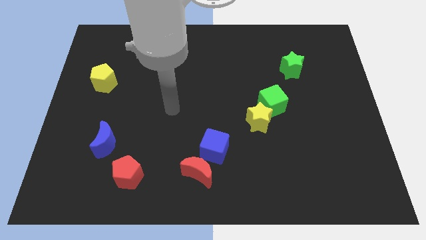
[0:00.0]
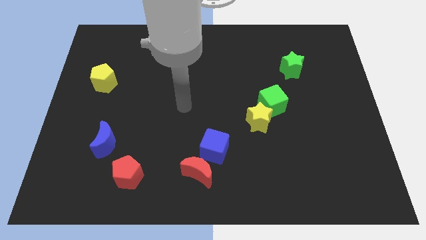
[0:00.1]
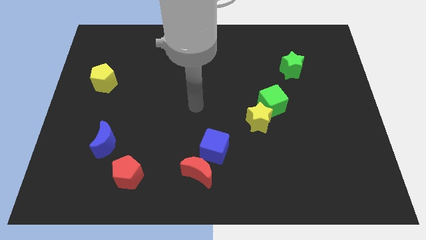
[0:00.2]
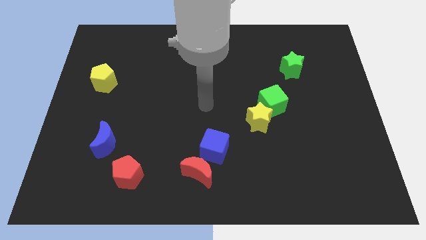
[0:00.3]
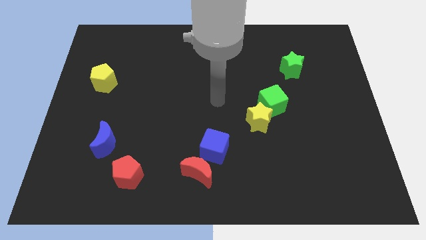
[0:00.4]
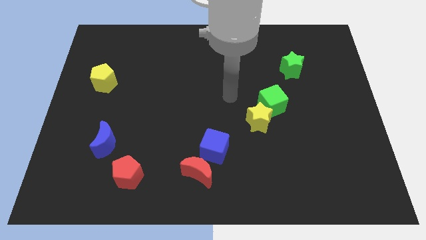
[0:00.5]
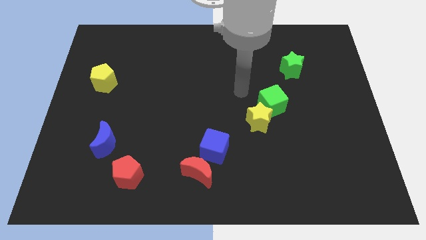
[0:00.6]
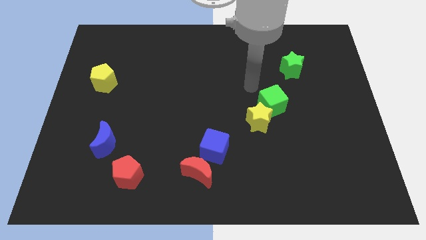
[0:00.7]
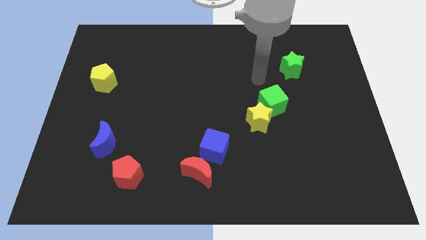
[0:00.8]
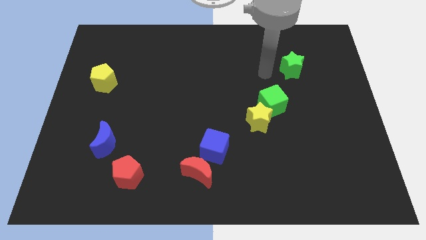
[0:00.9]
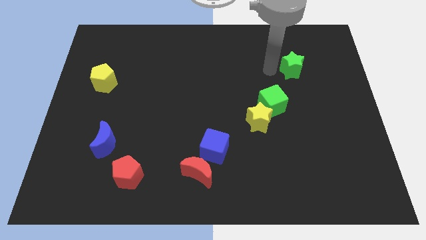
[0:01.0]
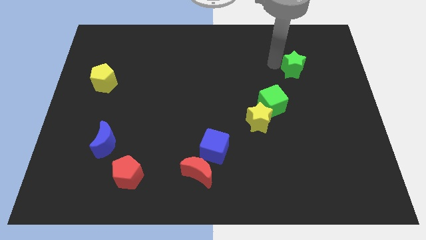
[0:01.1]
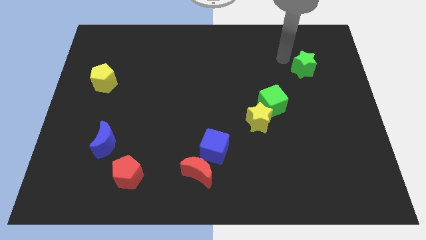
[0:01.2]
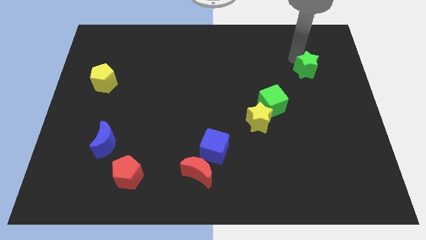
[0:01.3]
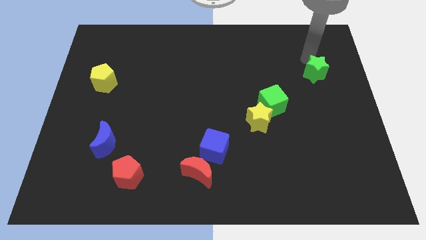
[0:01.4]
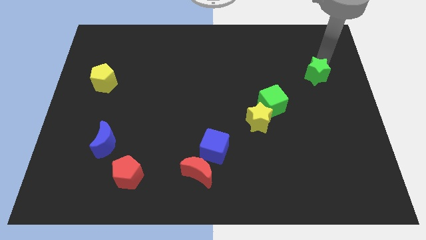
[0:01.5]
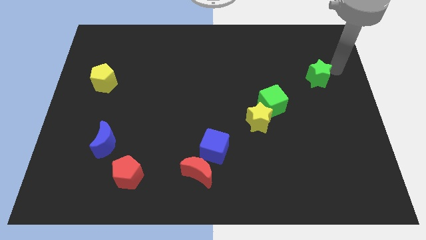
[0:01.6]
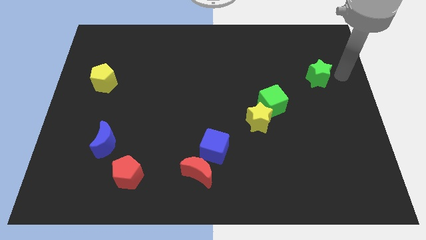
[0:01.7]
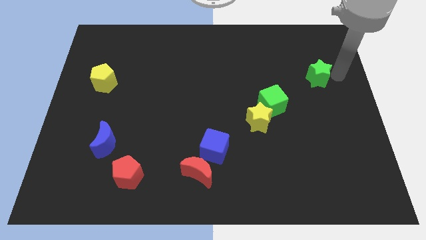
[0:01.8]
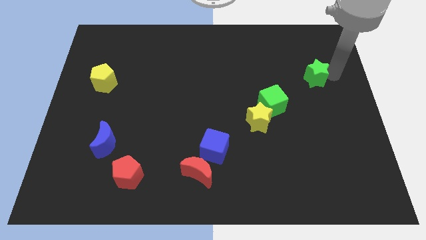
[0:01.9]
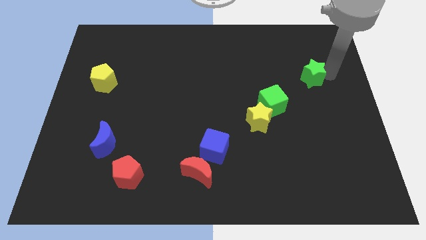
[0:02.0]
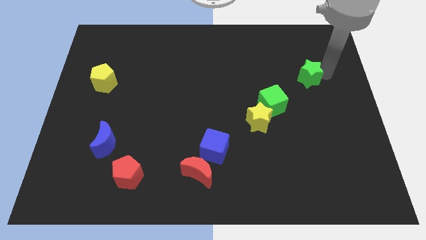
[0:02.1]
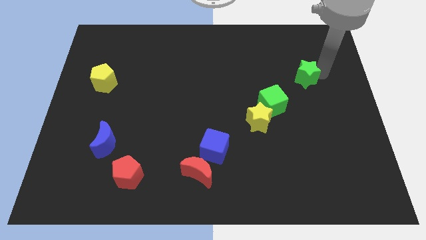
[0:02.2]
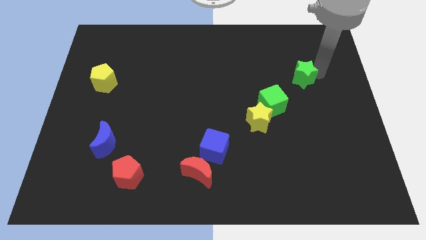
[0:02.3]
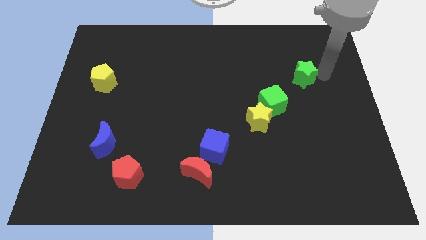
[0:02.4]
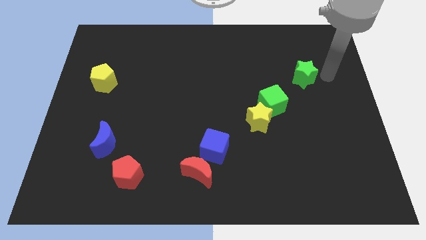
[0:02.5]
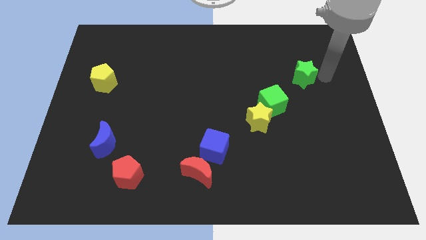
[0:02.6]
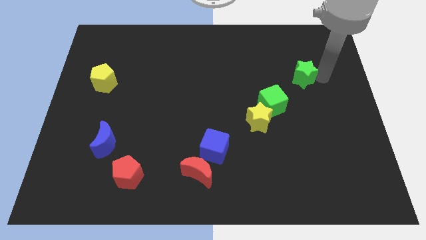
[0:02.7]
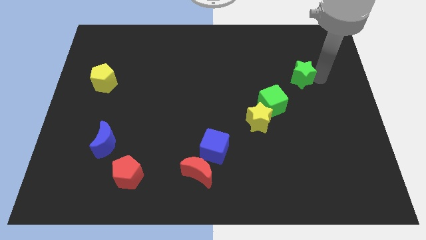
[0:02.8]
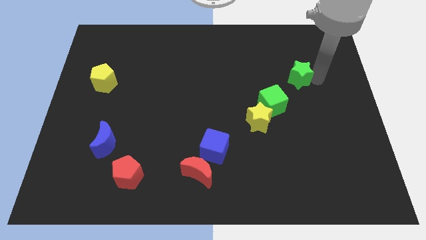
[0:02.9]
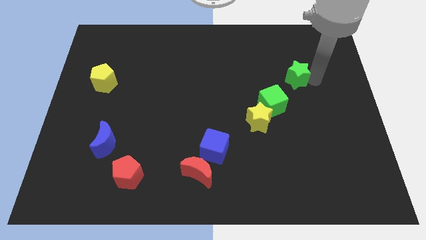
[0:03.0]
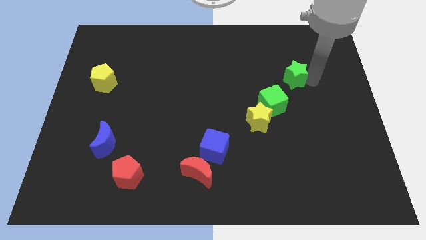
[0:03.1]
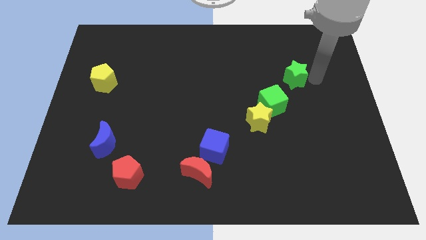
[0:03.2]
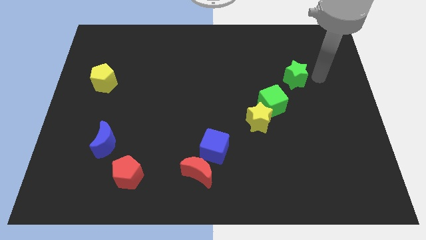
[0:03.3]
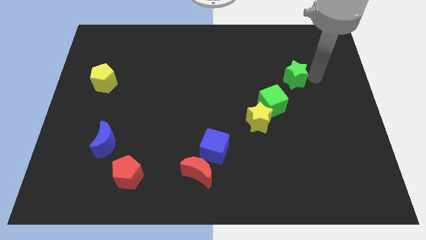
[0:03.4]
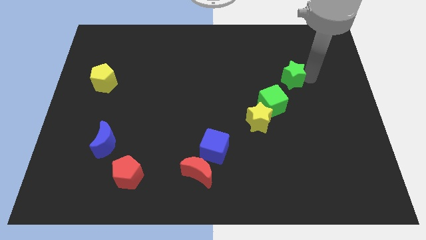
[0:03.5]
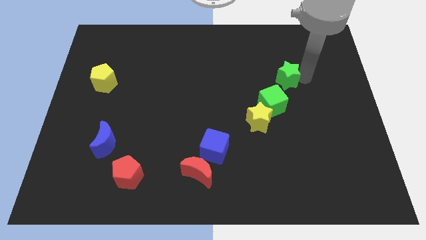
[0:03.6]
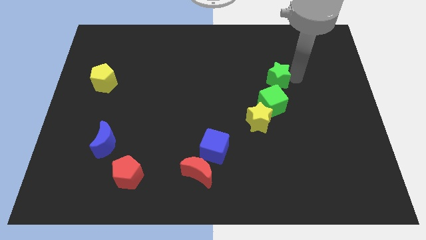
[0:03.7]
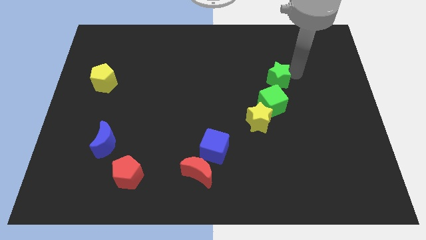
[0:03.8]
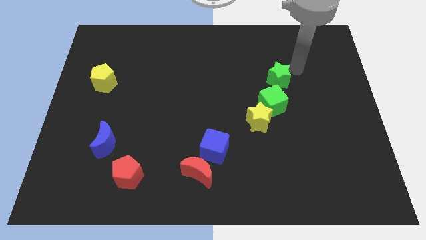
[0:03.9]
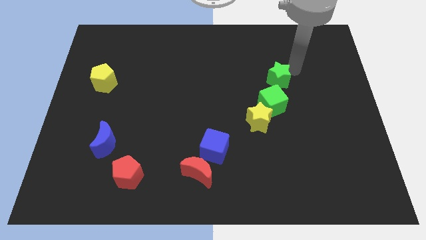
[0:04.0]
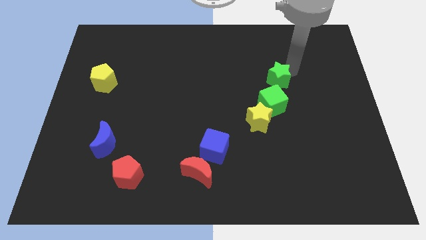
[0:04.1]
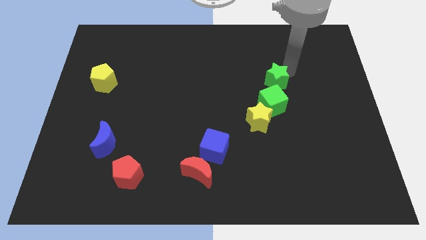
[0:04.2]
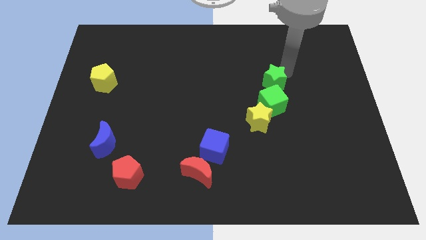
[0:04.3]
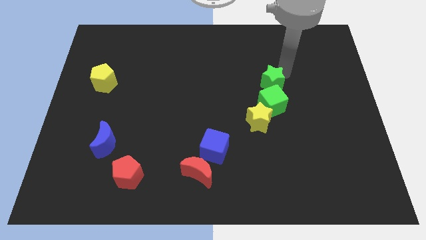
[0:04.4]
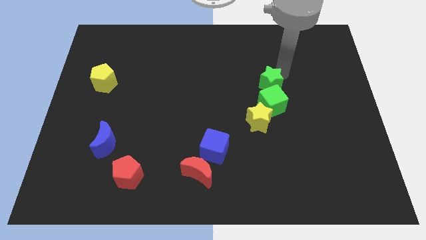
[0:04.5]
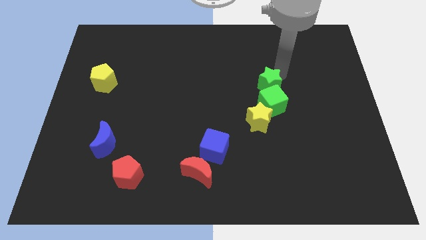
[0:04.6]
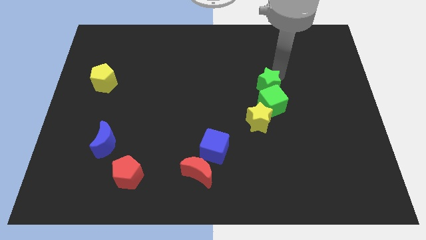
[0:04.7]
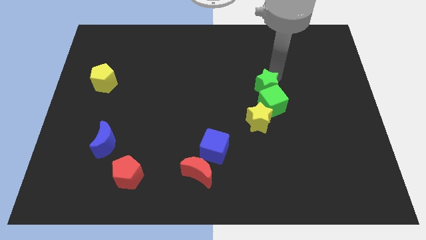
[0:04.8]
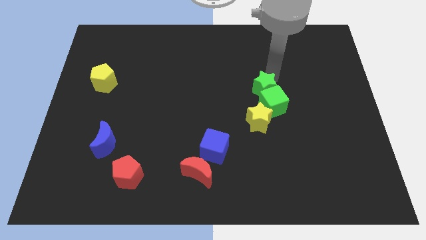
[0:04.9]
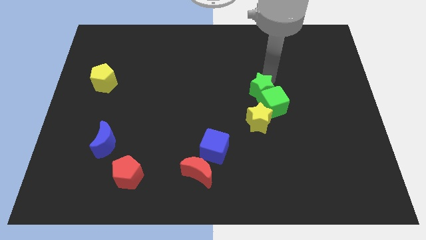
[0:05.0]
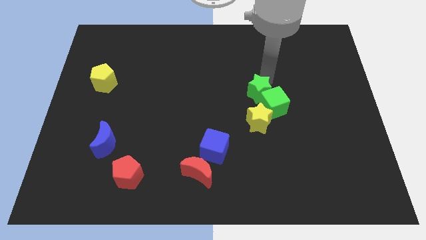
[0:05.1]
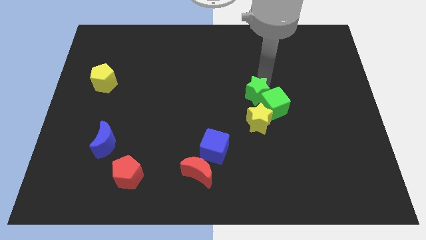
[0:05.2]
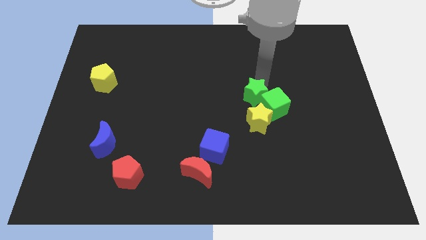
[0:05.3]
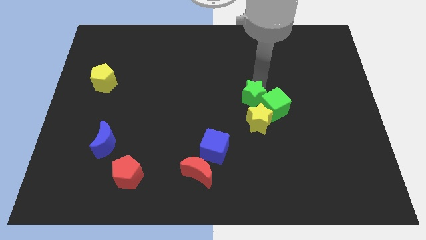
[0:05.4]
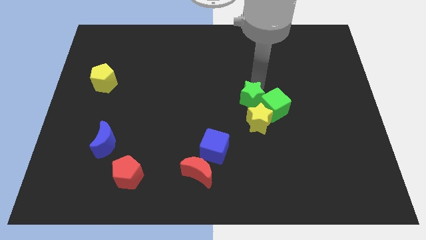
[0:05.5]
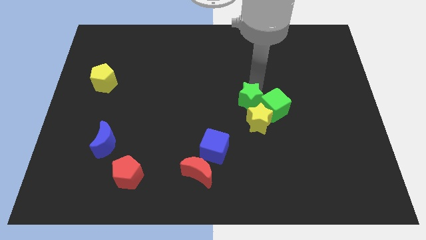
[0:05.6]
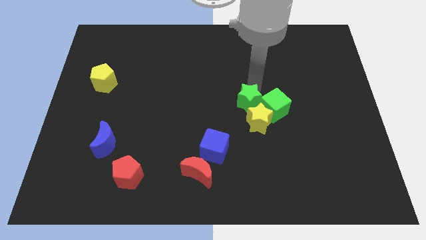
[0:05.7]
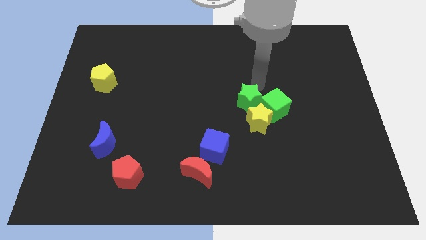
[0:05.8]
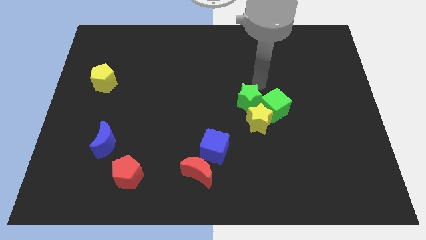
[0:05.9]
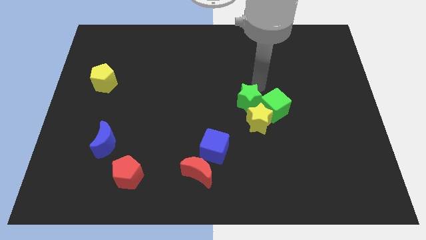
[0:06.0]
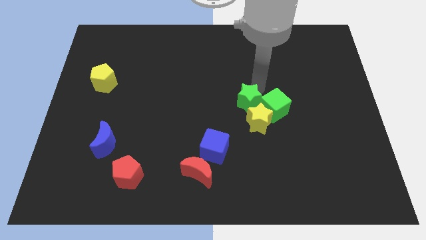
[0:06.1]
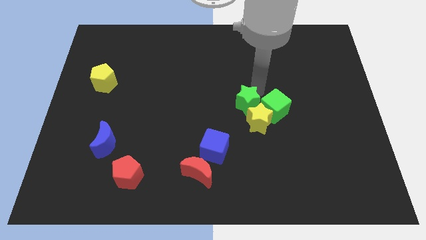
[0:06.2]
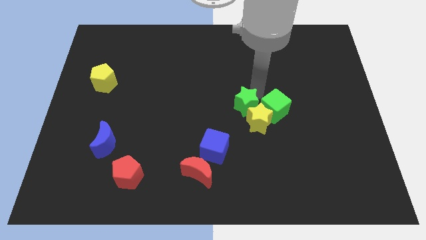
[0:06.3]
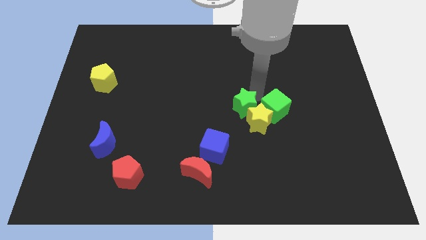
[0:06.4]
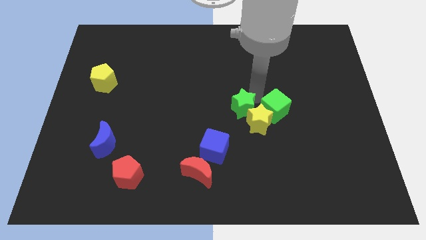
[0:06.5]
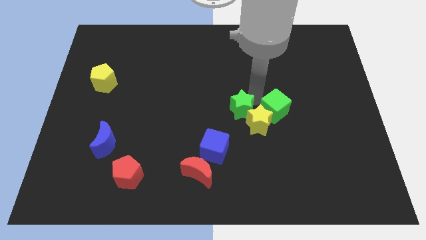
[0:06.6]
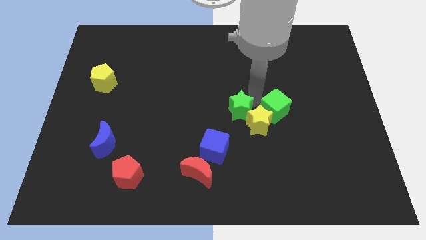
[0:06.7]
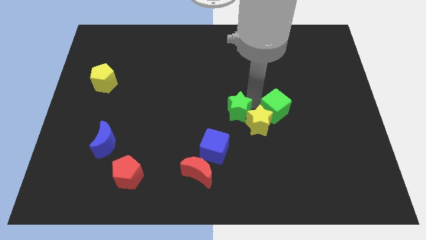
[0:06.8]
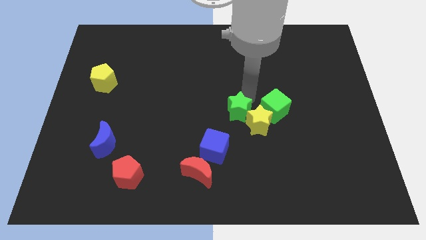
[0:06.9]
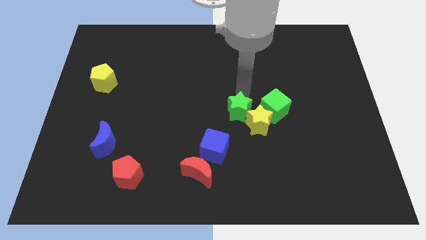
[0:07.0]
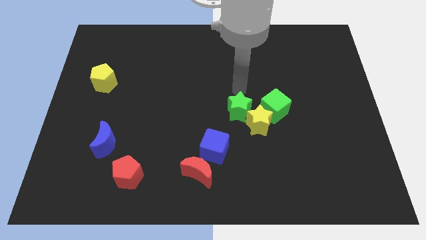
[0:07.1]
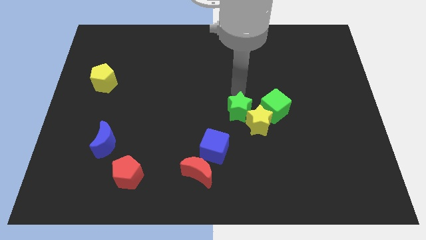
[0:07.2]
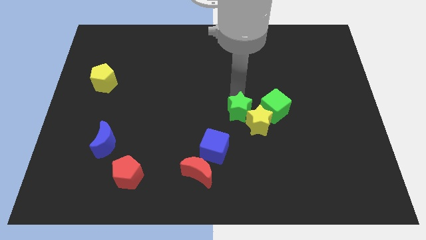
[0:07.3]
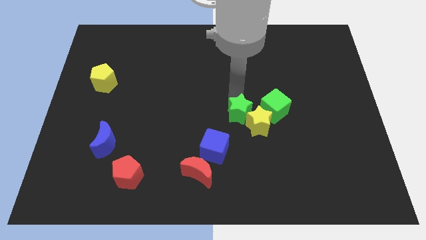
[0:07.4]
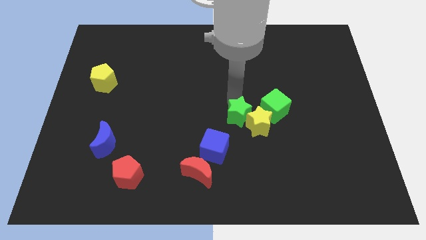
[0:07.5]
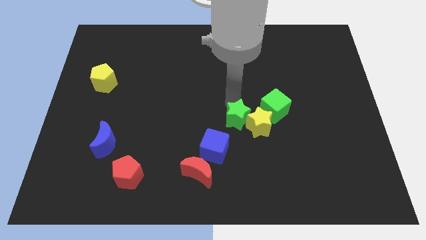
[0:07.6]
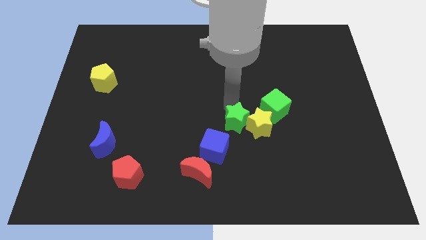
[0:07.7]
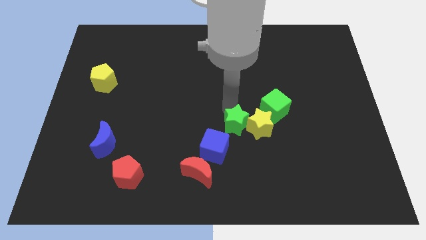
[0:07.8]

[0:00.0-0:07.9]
slide the green star to the bottom left side of the yellow star
